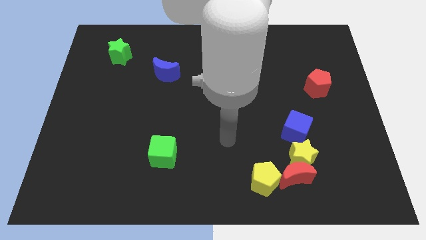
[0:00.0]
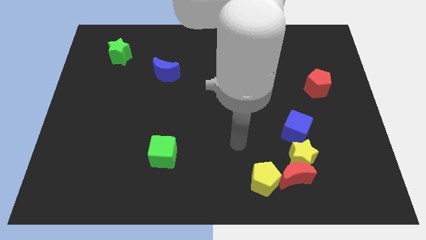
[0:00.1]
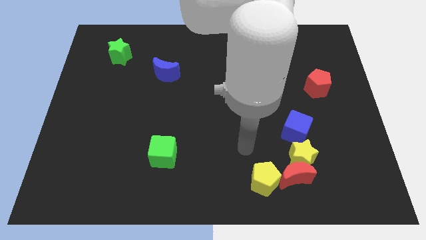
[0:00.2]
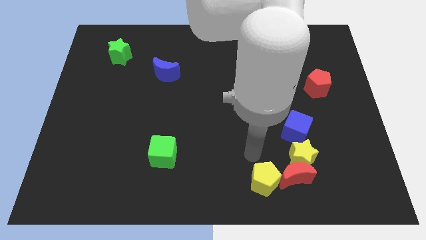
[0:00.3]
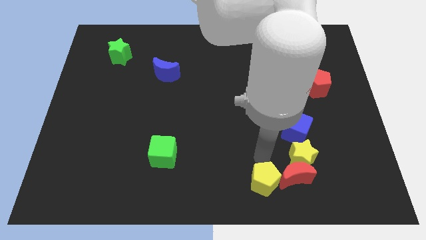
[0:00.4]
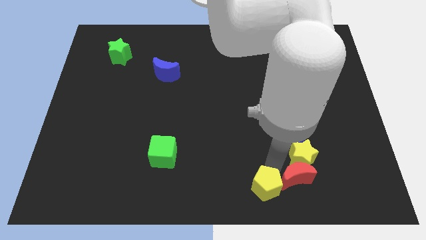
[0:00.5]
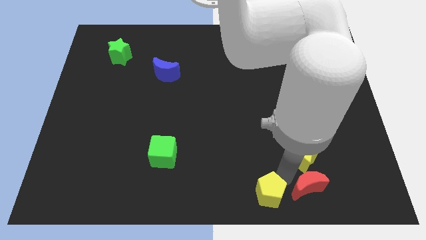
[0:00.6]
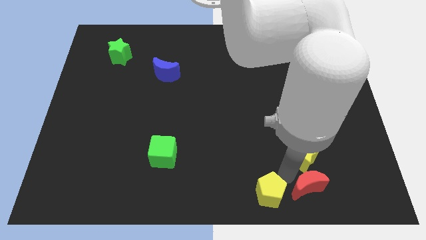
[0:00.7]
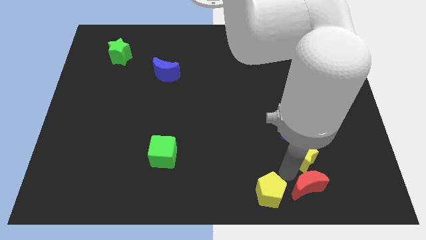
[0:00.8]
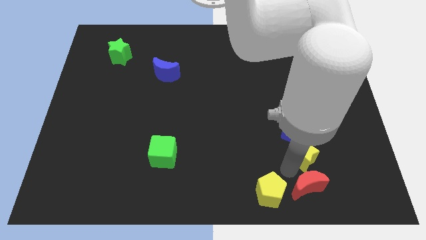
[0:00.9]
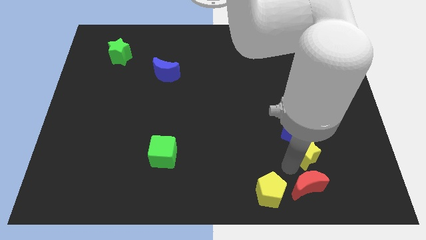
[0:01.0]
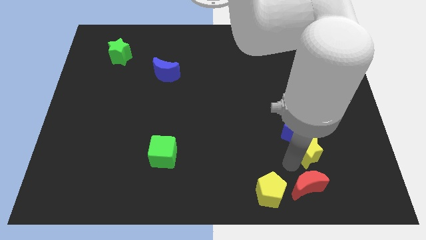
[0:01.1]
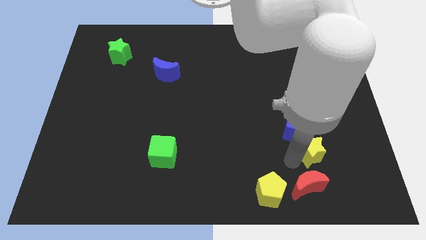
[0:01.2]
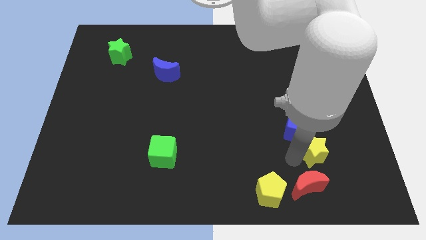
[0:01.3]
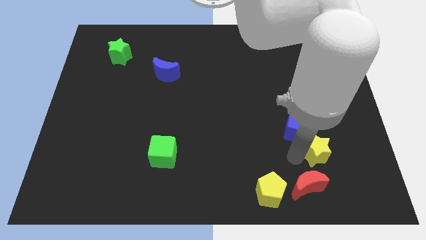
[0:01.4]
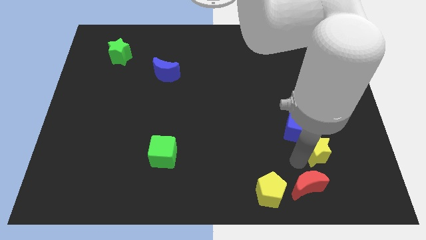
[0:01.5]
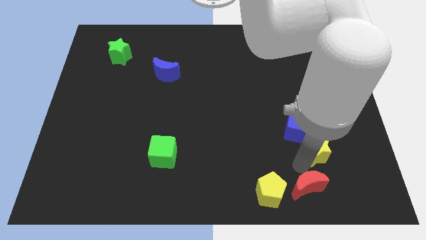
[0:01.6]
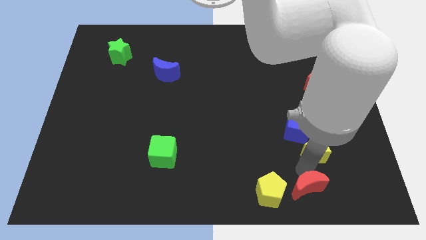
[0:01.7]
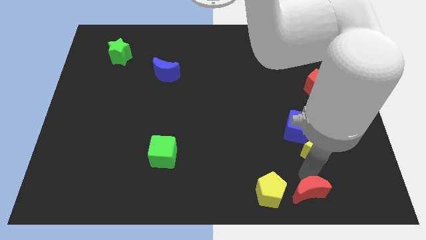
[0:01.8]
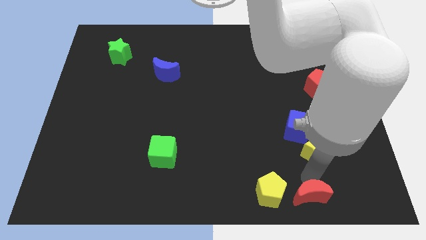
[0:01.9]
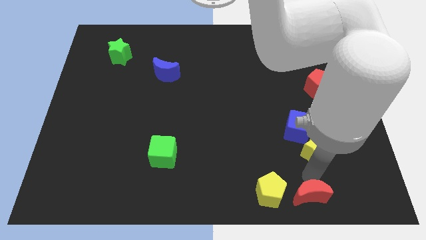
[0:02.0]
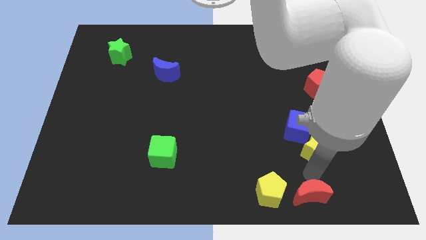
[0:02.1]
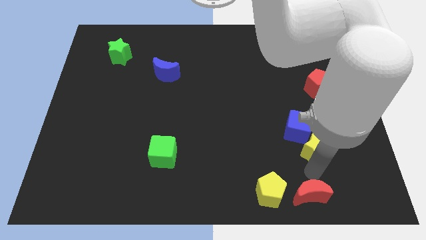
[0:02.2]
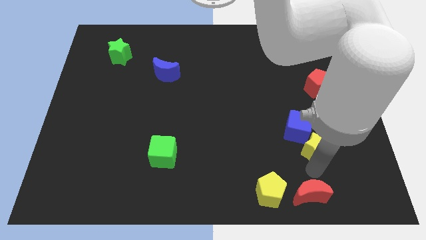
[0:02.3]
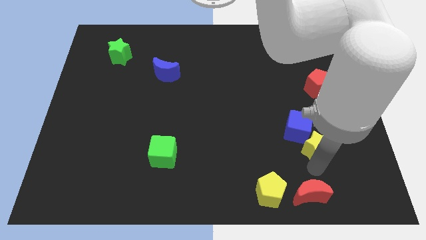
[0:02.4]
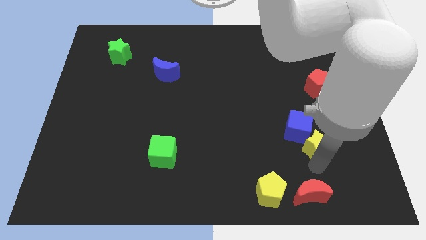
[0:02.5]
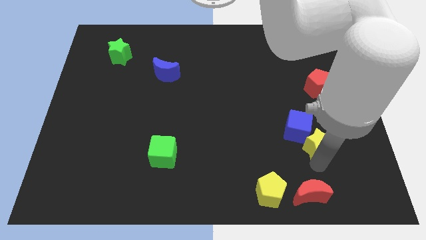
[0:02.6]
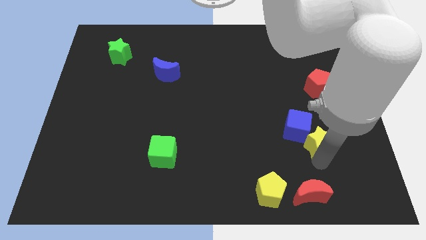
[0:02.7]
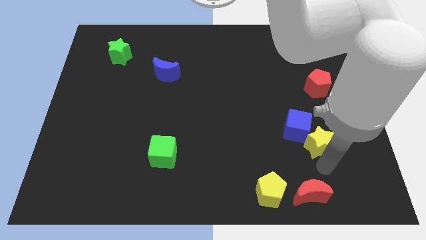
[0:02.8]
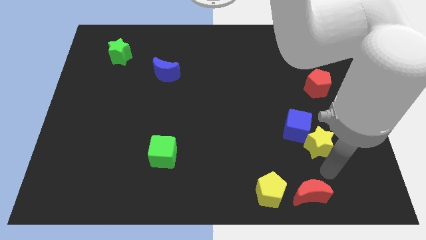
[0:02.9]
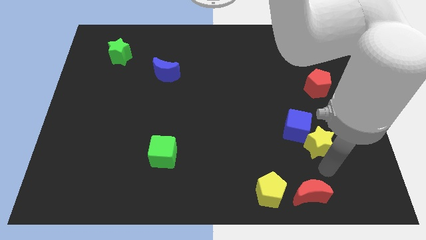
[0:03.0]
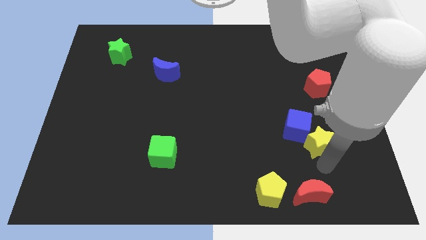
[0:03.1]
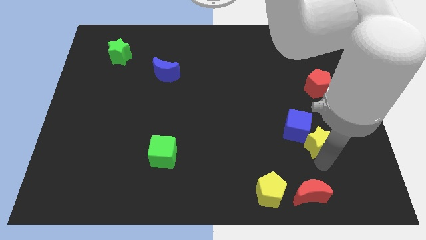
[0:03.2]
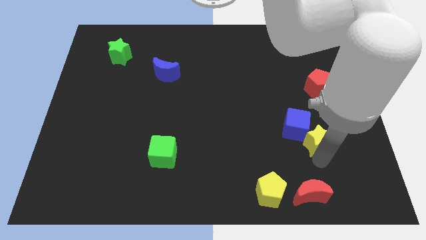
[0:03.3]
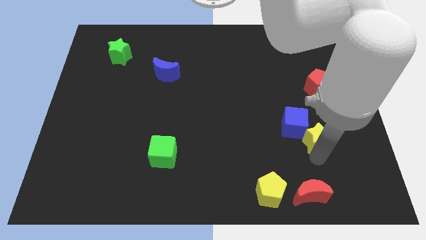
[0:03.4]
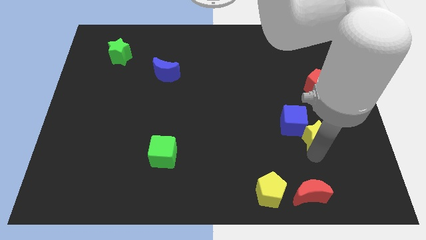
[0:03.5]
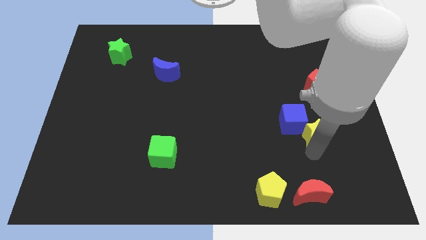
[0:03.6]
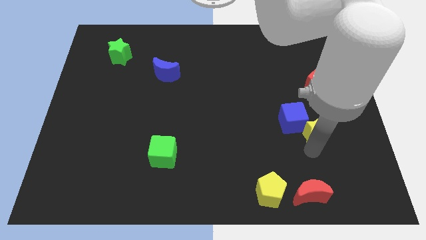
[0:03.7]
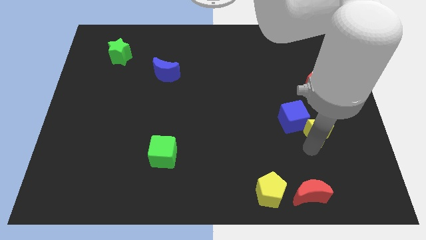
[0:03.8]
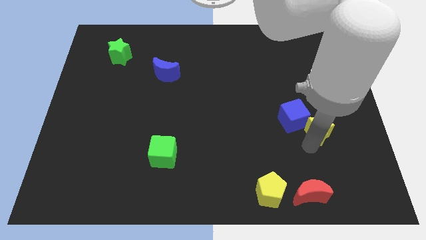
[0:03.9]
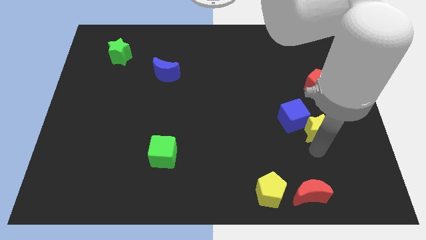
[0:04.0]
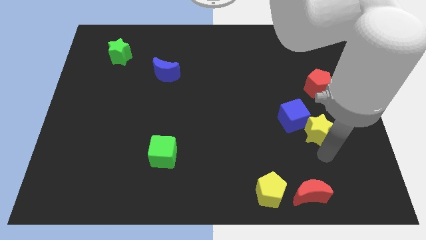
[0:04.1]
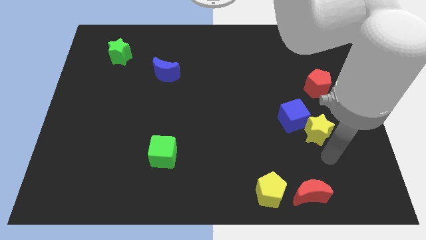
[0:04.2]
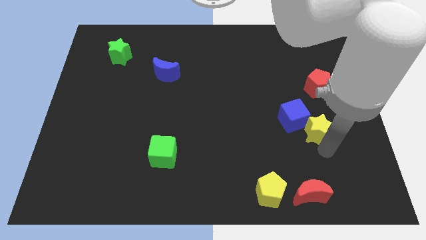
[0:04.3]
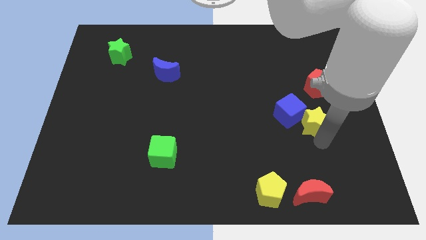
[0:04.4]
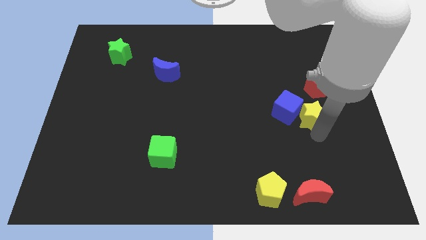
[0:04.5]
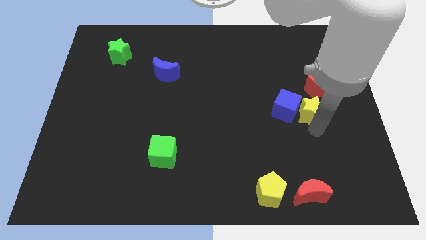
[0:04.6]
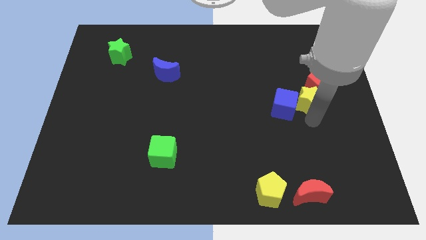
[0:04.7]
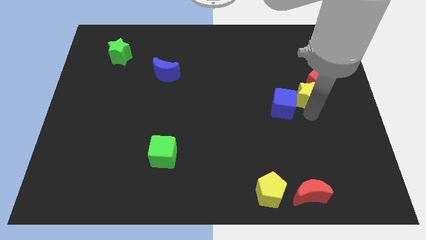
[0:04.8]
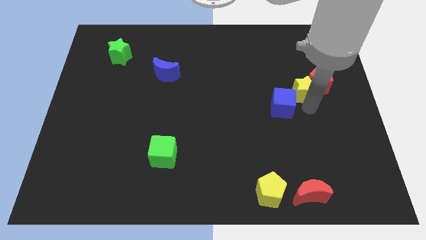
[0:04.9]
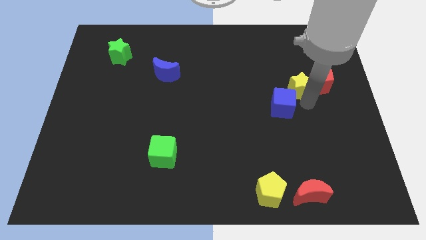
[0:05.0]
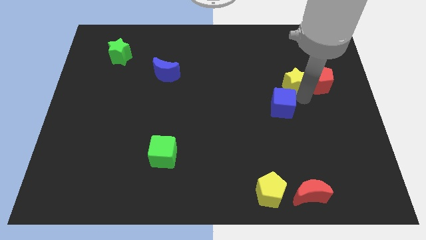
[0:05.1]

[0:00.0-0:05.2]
slide the yellow star to the top left of the red pentagon

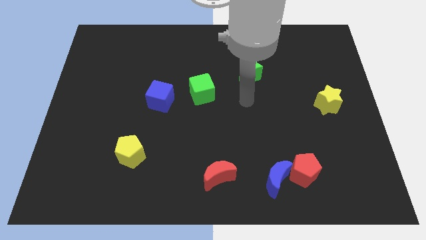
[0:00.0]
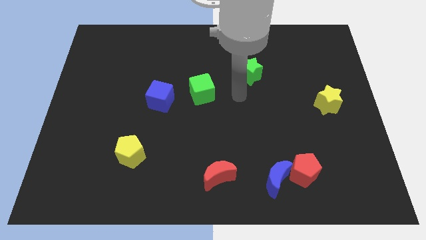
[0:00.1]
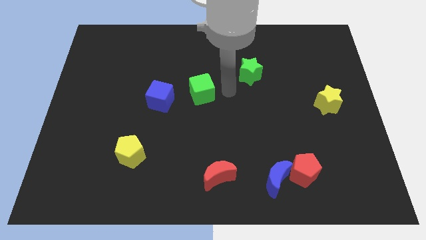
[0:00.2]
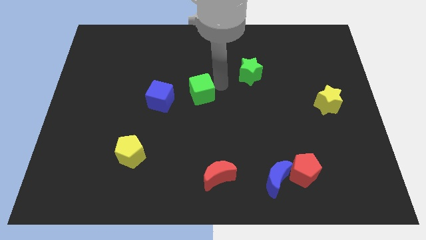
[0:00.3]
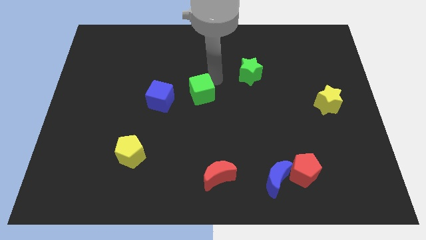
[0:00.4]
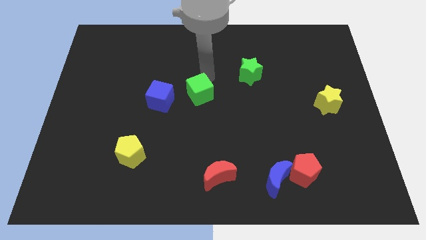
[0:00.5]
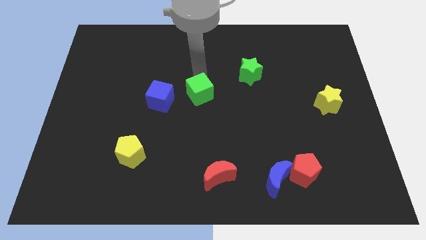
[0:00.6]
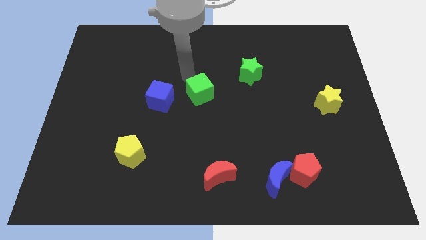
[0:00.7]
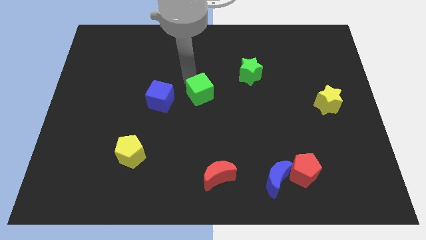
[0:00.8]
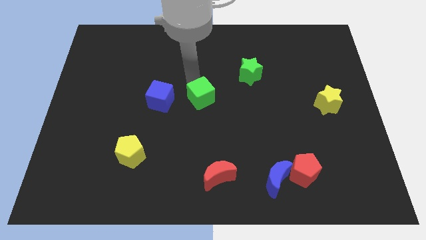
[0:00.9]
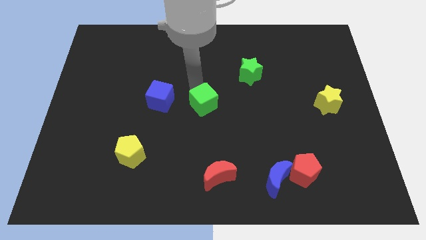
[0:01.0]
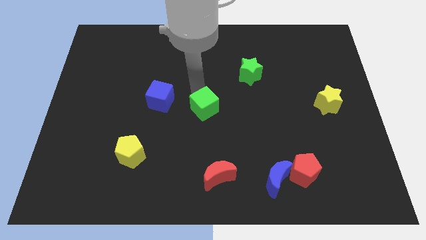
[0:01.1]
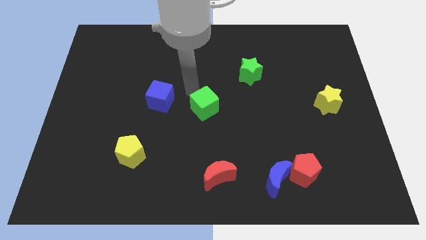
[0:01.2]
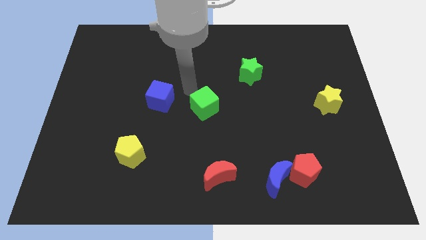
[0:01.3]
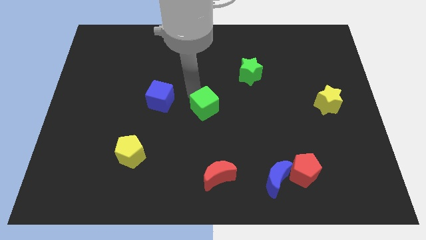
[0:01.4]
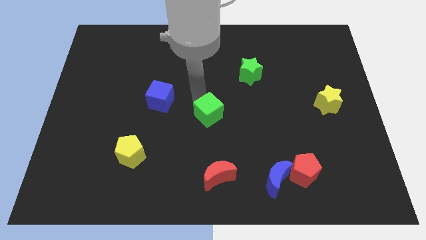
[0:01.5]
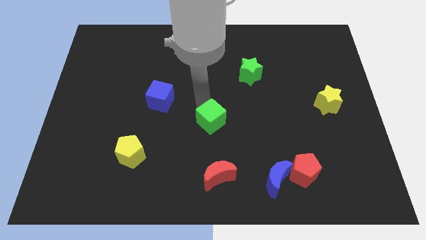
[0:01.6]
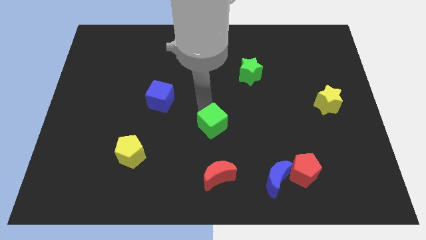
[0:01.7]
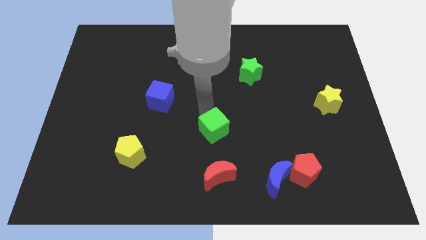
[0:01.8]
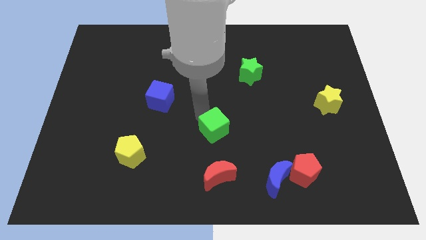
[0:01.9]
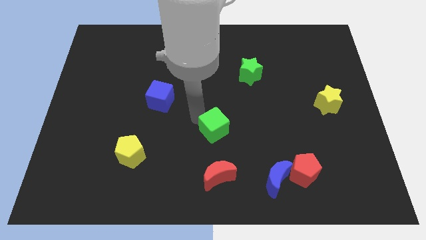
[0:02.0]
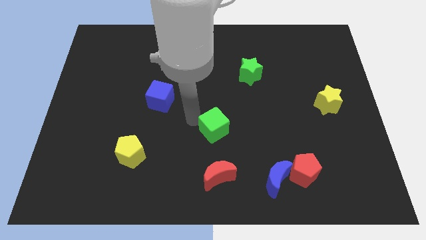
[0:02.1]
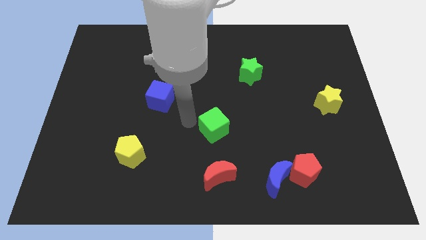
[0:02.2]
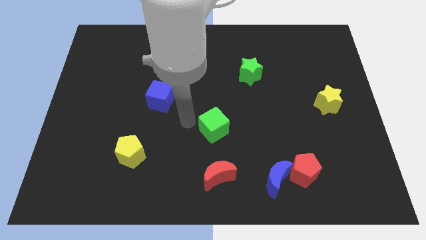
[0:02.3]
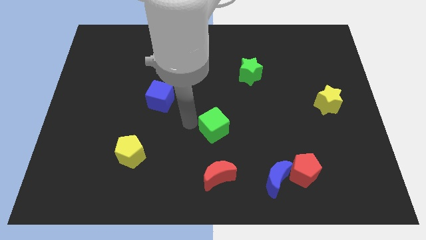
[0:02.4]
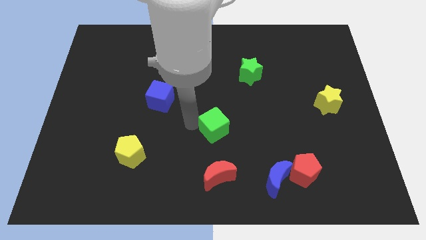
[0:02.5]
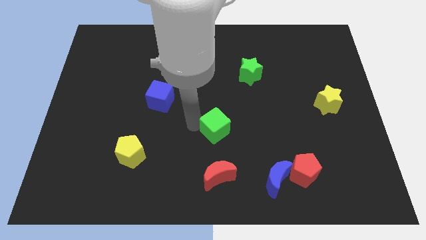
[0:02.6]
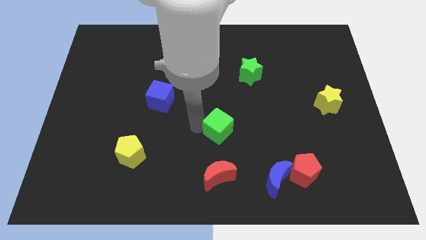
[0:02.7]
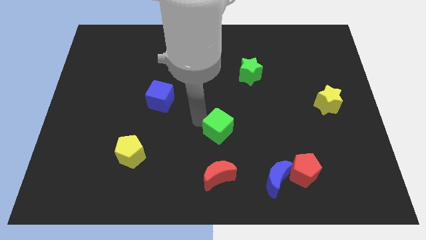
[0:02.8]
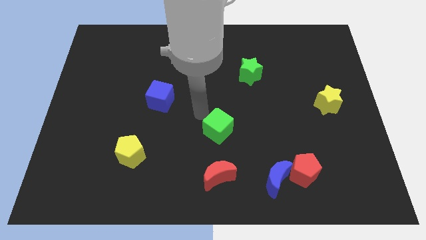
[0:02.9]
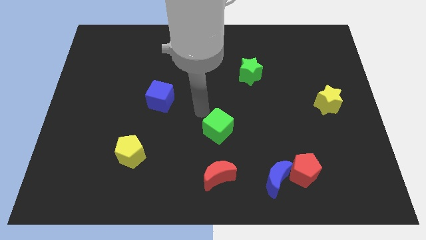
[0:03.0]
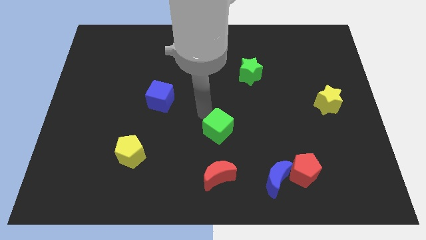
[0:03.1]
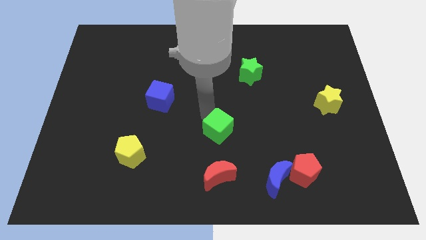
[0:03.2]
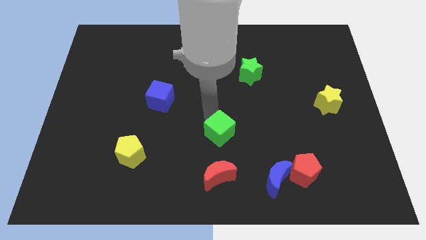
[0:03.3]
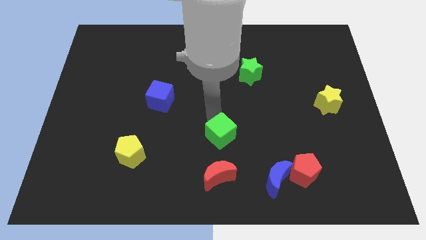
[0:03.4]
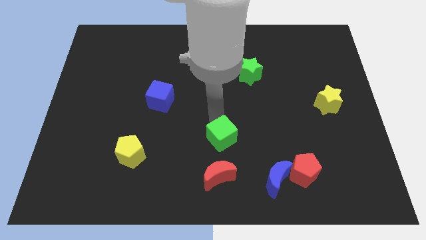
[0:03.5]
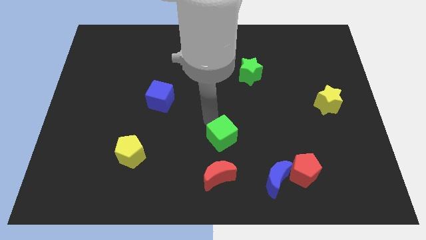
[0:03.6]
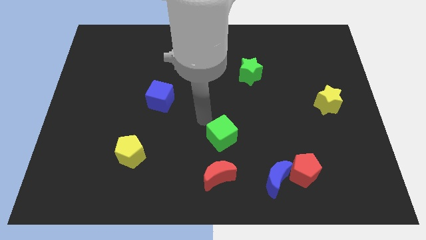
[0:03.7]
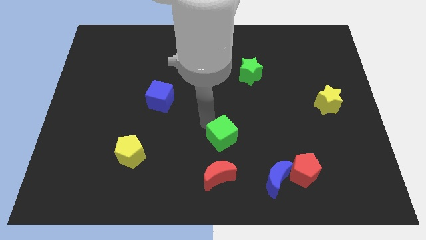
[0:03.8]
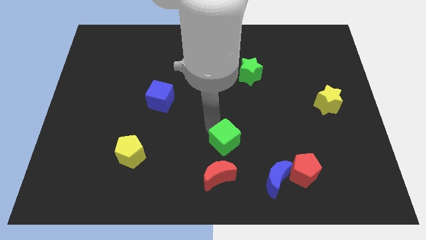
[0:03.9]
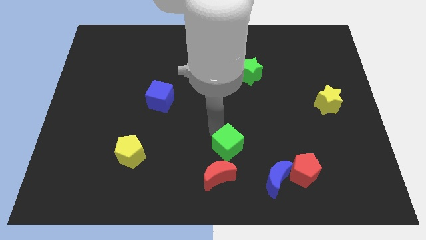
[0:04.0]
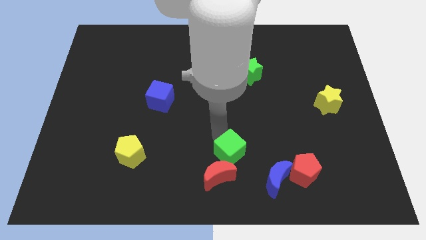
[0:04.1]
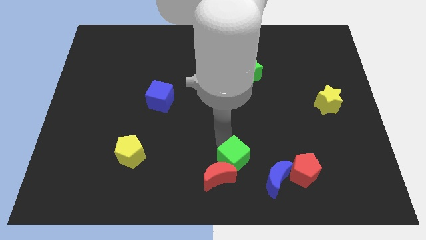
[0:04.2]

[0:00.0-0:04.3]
move the green cube left of the red pentagon
